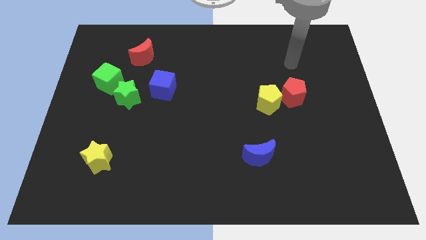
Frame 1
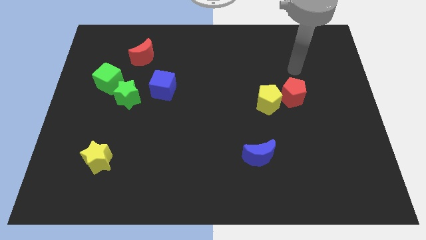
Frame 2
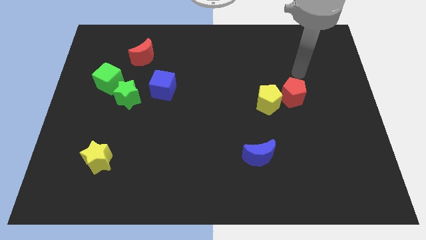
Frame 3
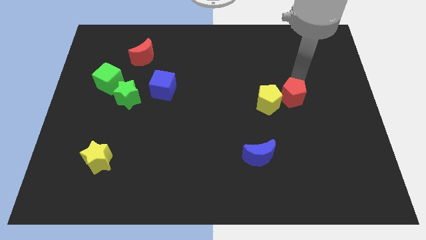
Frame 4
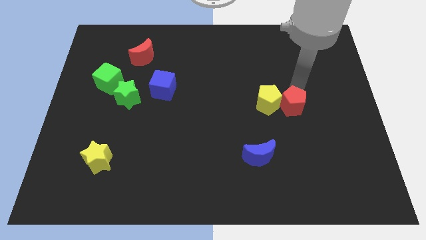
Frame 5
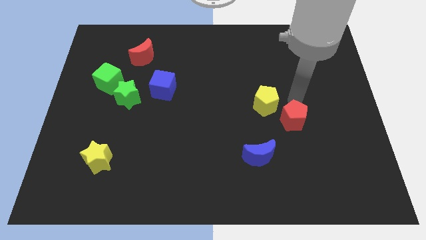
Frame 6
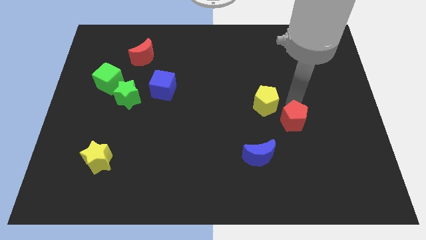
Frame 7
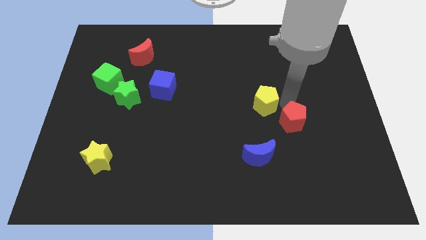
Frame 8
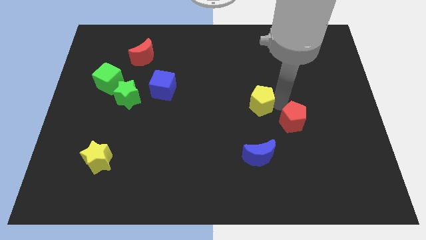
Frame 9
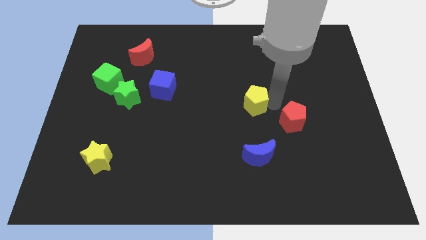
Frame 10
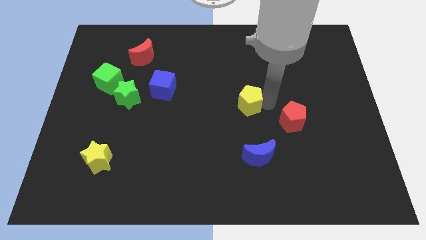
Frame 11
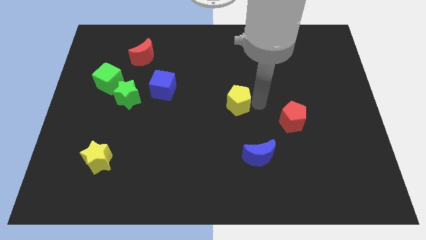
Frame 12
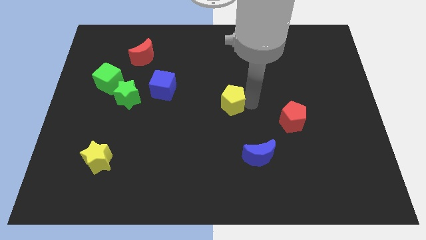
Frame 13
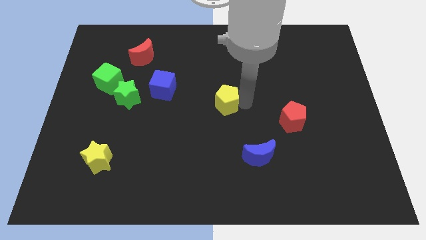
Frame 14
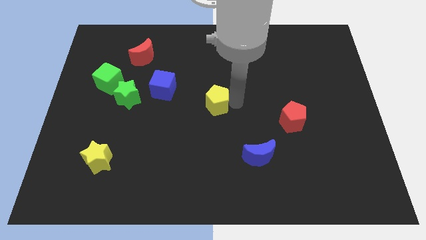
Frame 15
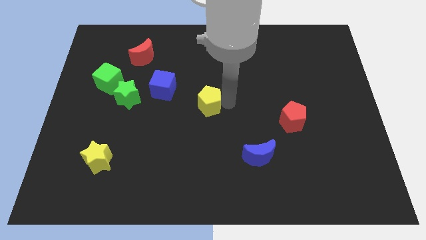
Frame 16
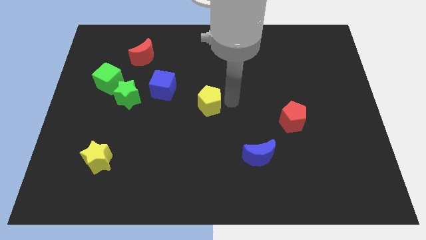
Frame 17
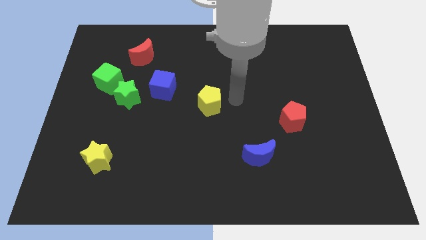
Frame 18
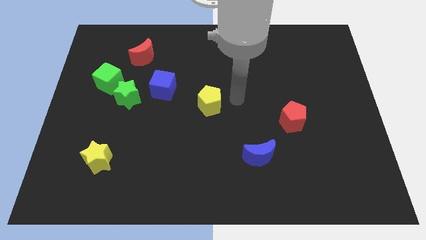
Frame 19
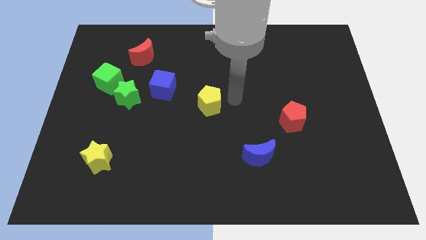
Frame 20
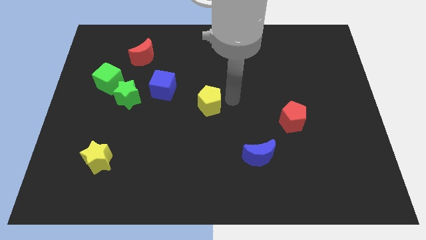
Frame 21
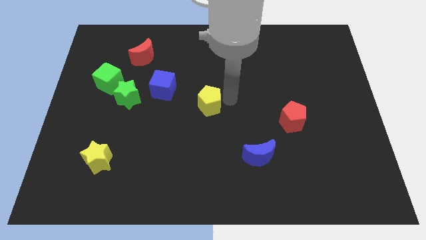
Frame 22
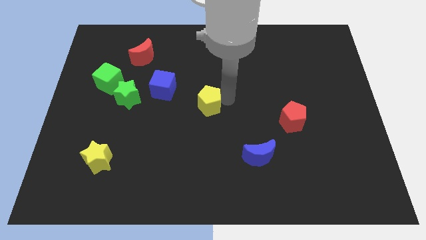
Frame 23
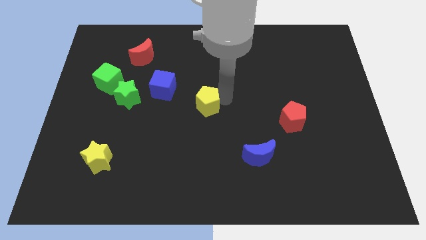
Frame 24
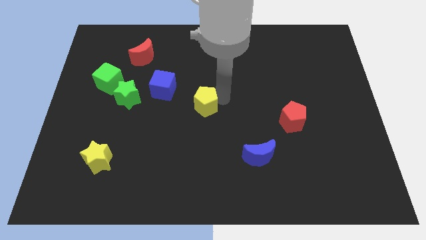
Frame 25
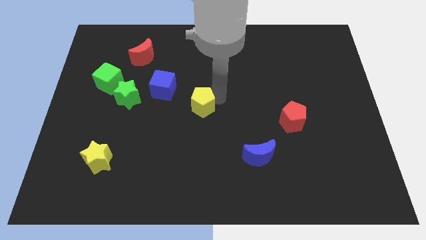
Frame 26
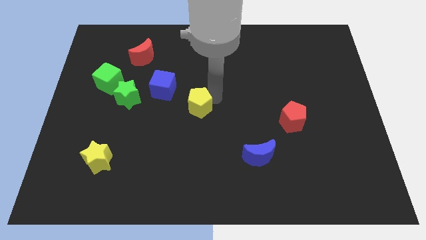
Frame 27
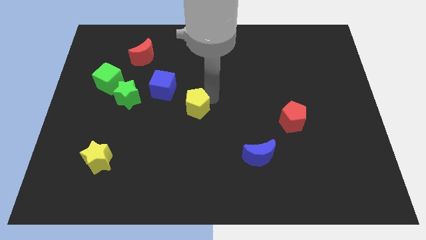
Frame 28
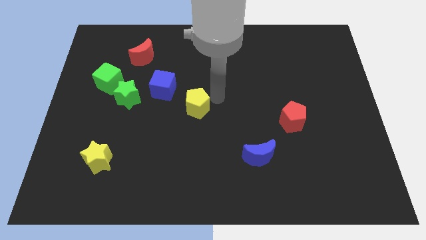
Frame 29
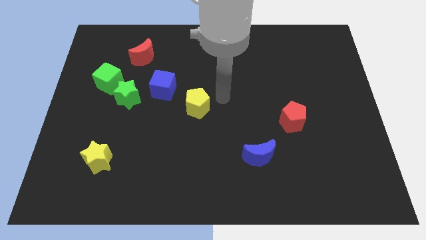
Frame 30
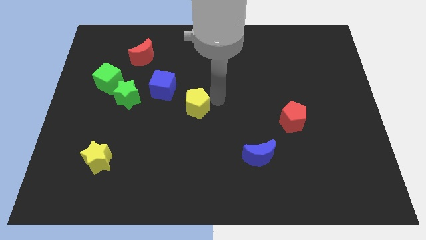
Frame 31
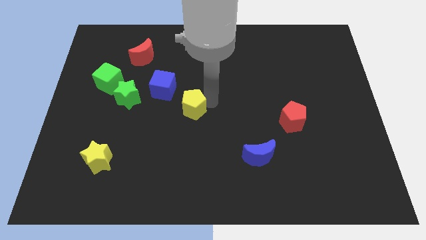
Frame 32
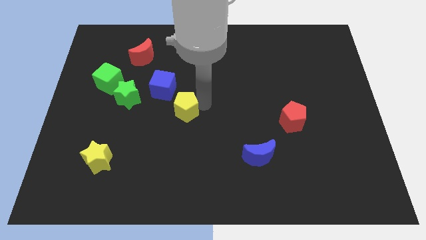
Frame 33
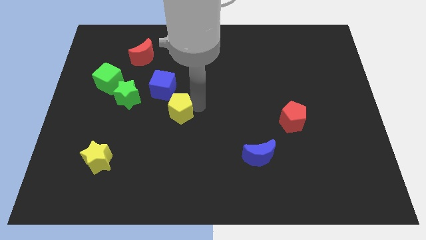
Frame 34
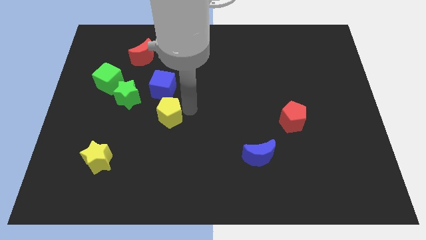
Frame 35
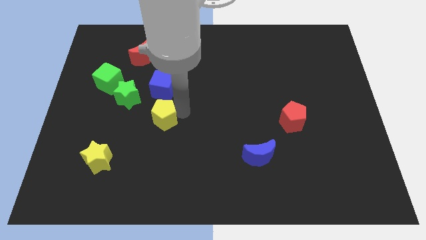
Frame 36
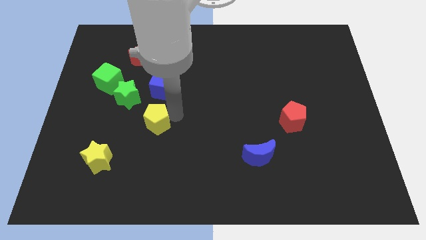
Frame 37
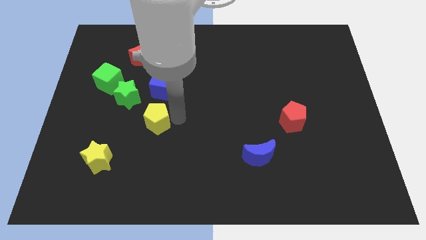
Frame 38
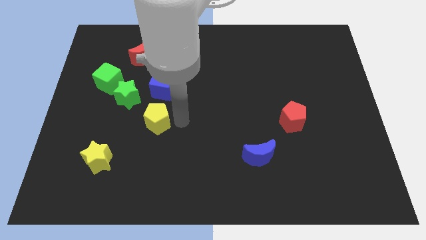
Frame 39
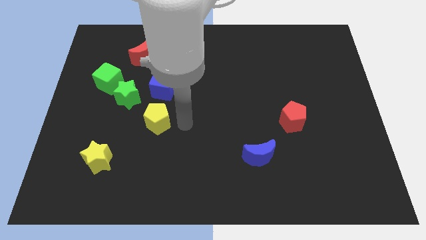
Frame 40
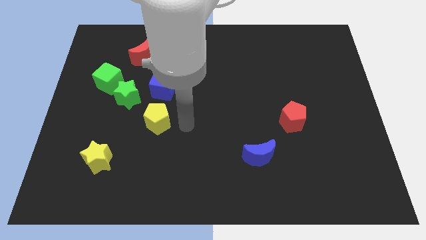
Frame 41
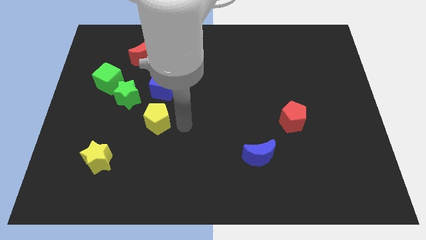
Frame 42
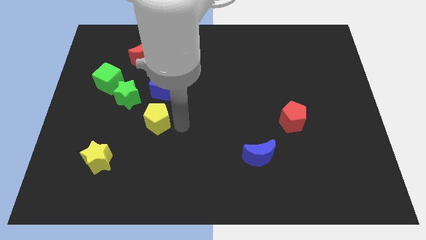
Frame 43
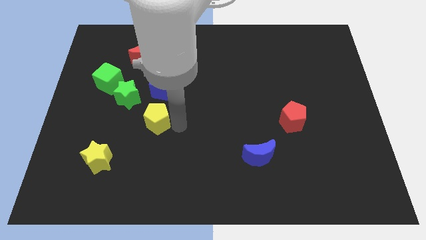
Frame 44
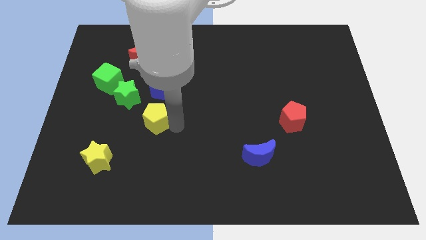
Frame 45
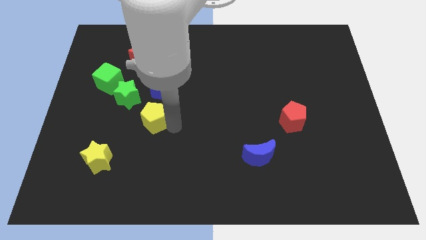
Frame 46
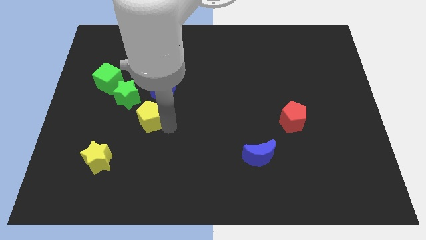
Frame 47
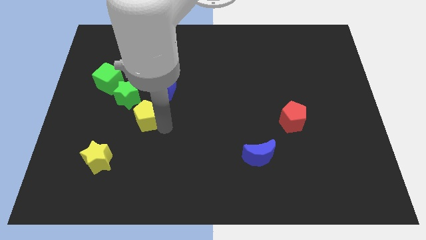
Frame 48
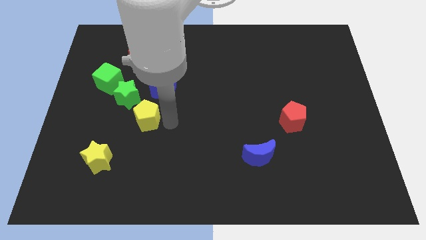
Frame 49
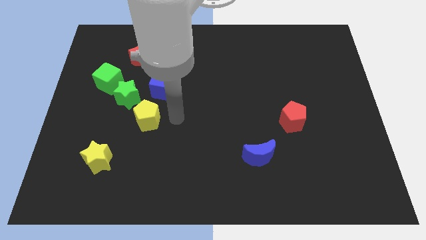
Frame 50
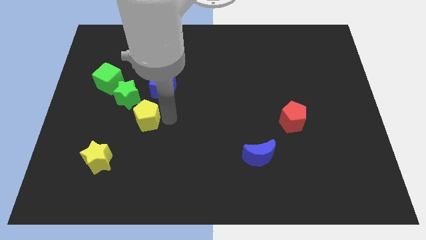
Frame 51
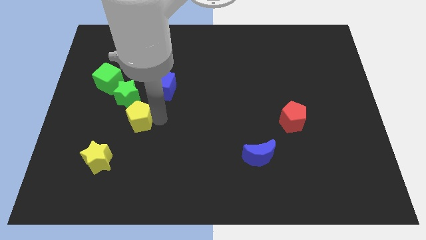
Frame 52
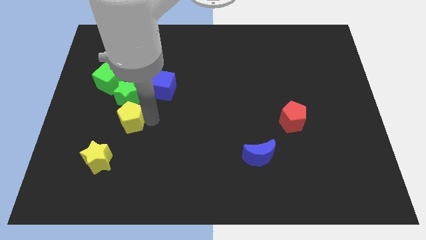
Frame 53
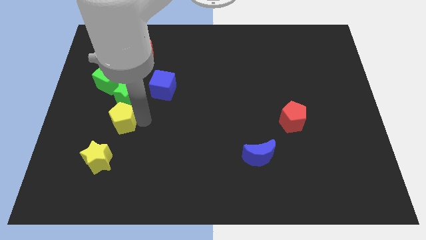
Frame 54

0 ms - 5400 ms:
move the yellow pentagon to the top side of the yellow star

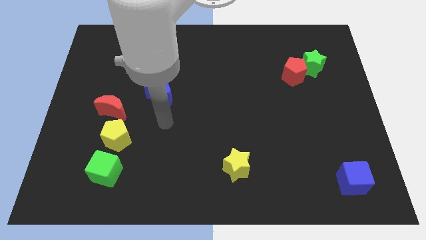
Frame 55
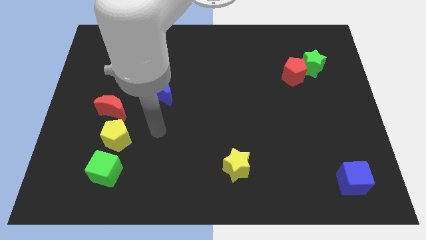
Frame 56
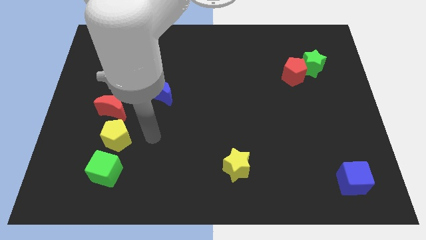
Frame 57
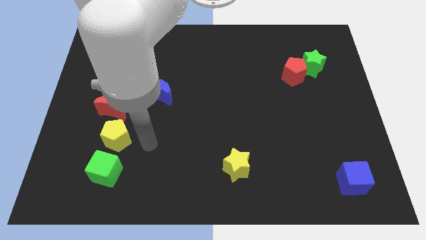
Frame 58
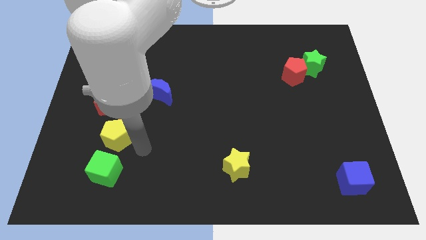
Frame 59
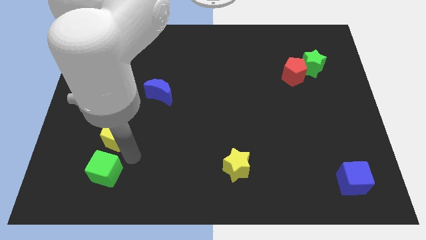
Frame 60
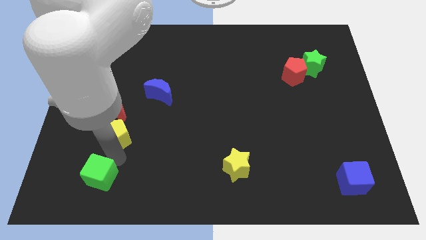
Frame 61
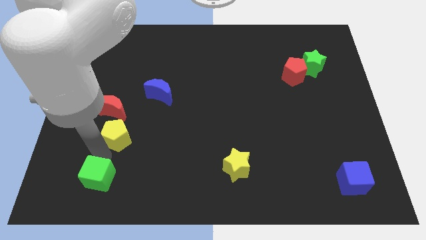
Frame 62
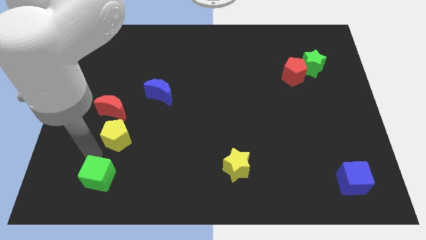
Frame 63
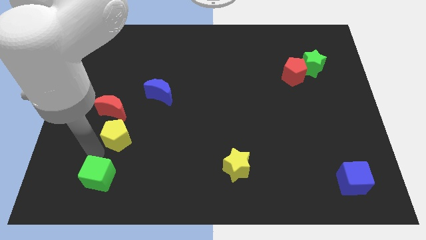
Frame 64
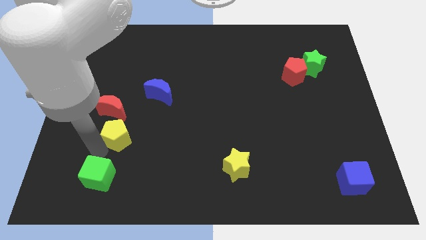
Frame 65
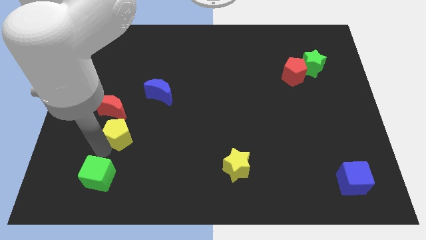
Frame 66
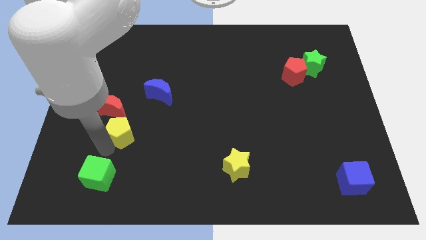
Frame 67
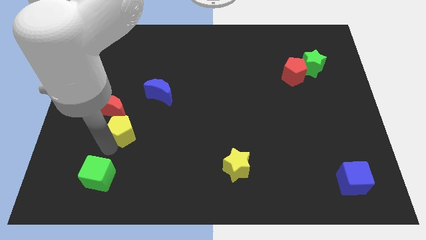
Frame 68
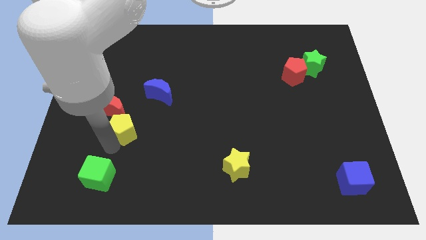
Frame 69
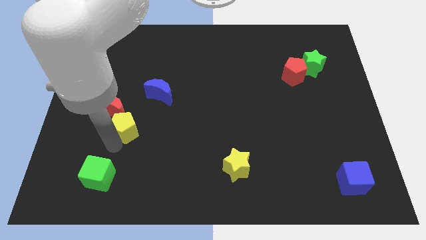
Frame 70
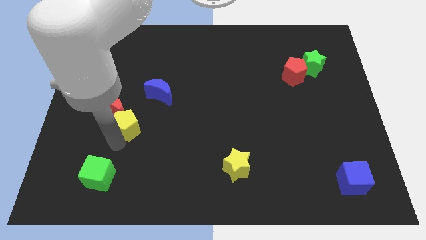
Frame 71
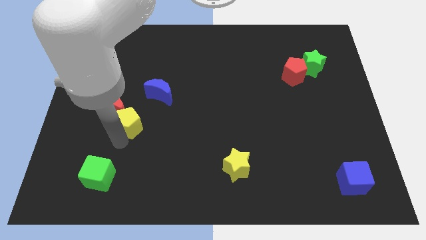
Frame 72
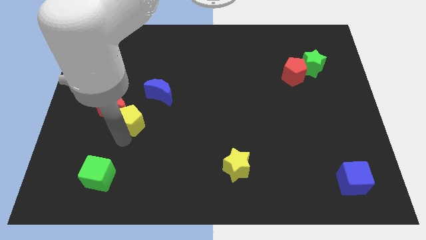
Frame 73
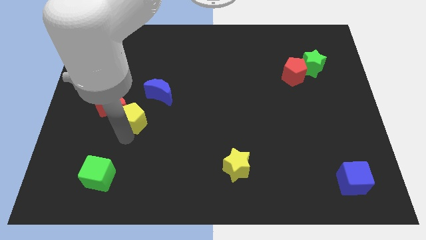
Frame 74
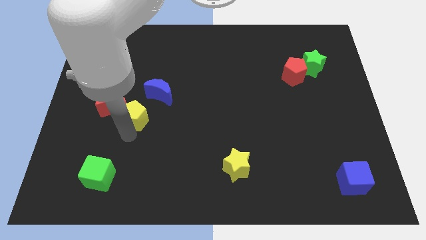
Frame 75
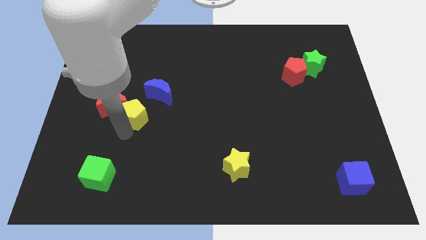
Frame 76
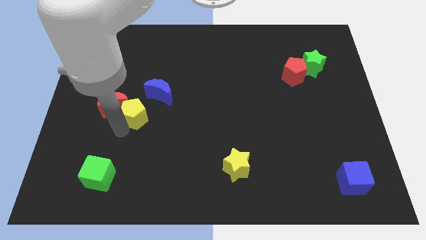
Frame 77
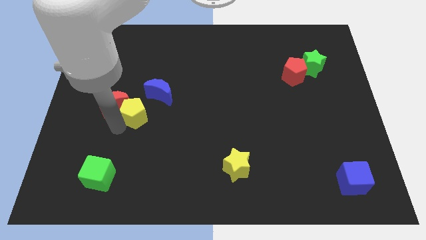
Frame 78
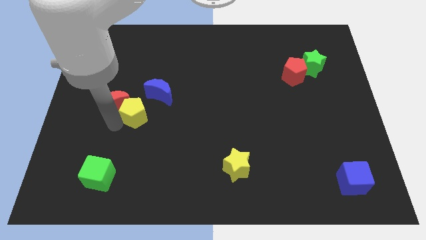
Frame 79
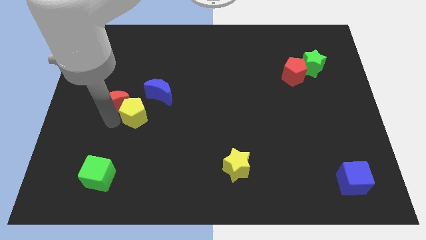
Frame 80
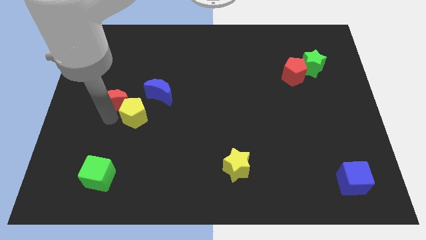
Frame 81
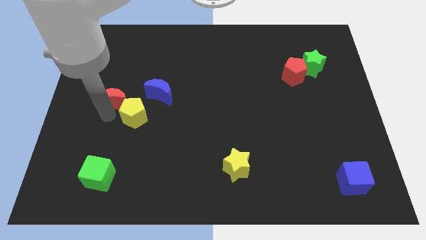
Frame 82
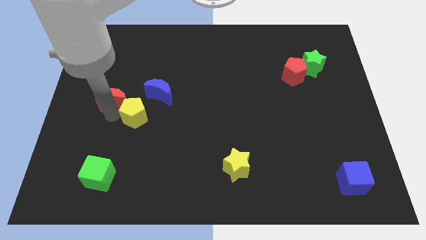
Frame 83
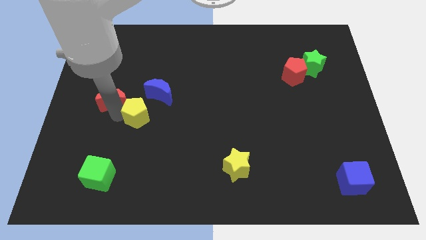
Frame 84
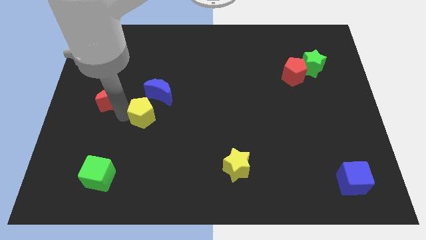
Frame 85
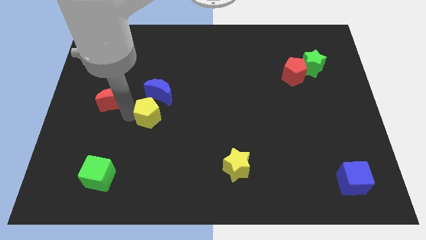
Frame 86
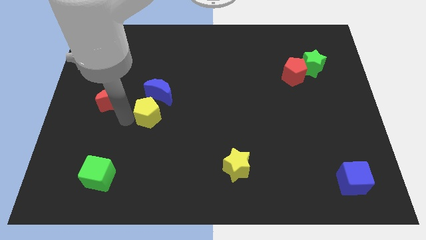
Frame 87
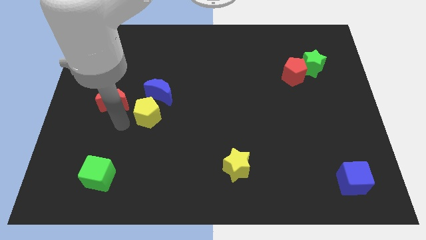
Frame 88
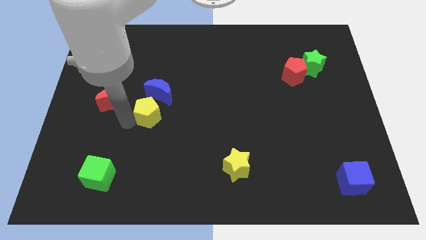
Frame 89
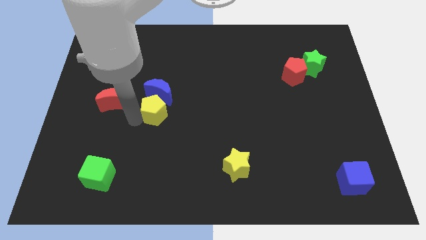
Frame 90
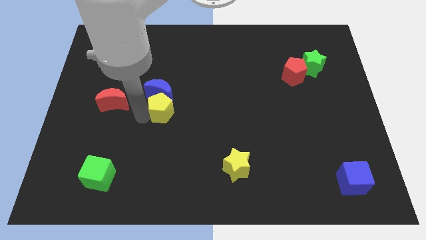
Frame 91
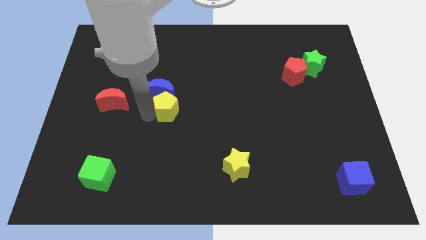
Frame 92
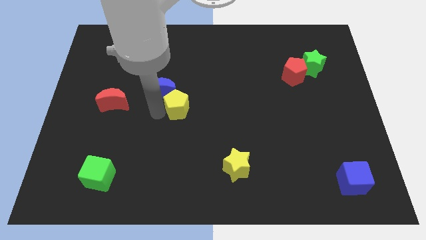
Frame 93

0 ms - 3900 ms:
put the yellow pentagon right of the blue moon
